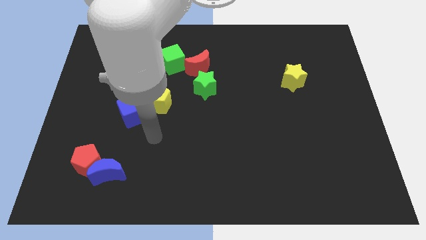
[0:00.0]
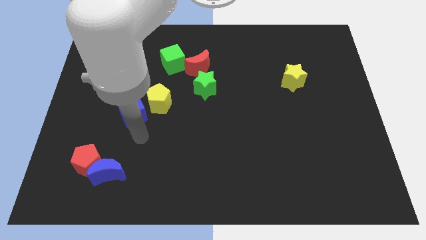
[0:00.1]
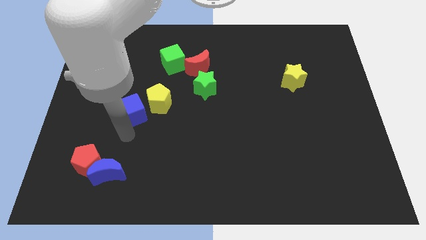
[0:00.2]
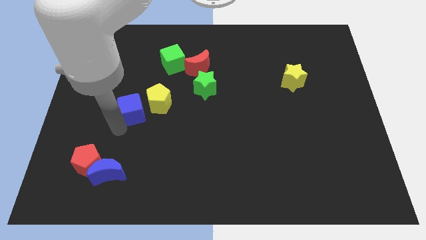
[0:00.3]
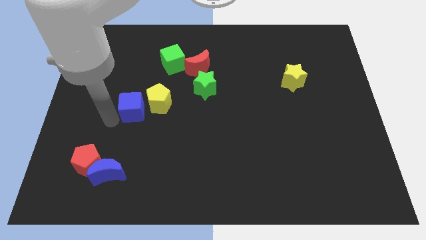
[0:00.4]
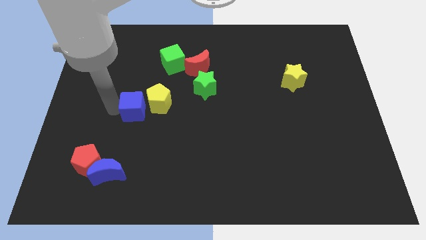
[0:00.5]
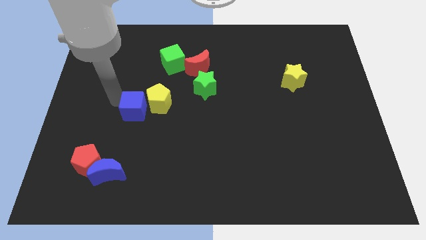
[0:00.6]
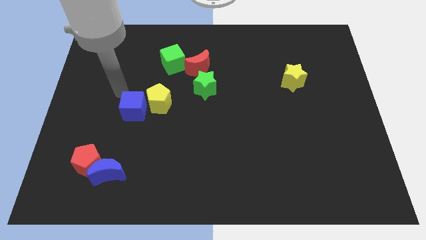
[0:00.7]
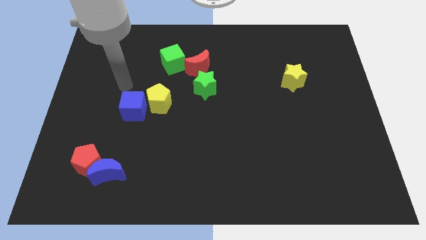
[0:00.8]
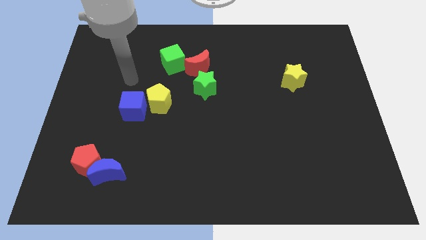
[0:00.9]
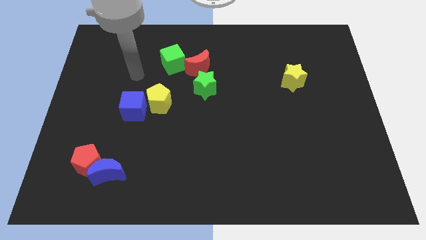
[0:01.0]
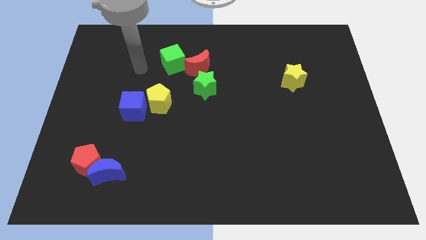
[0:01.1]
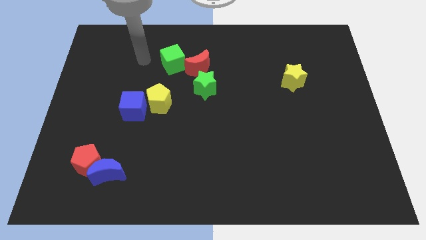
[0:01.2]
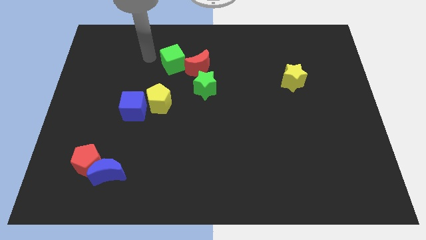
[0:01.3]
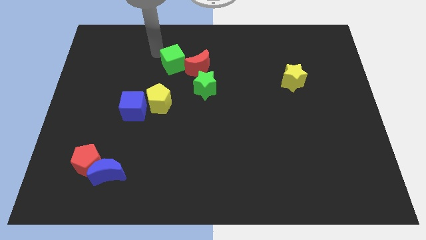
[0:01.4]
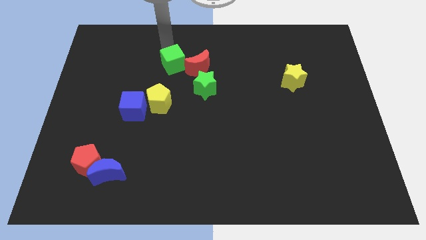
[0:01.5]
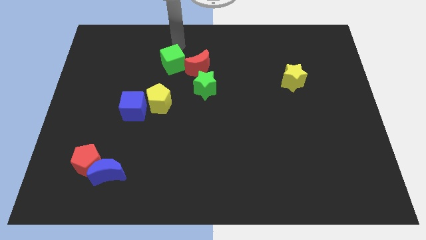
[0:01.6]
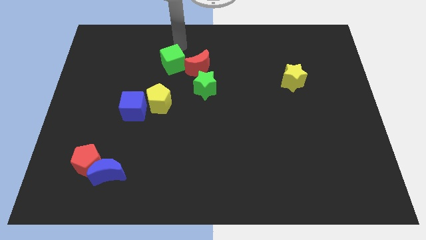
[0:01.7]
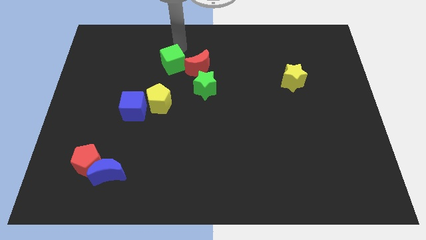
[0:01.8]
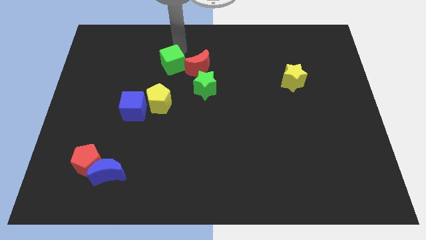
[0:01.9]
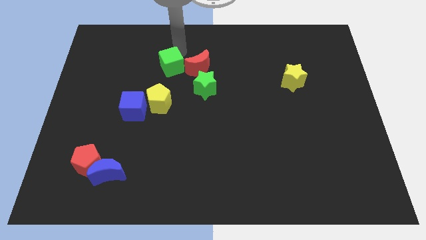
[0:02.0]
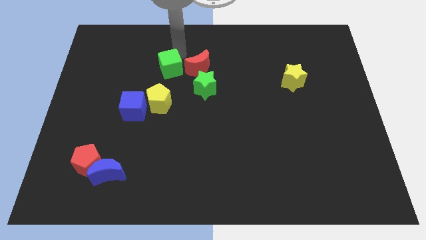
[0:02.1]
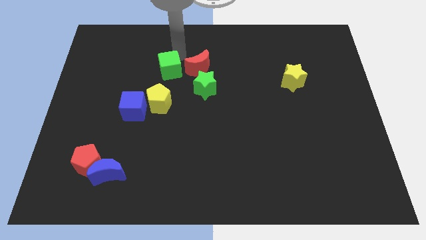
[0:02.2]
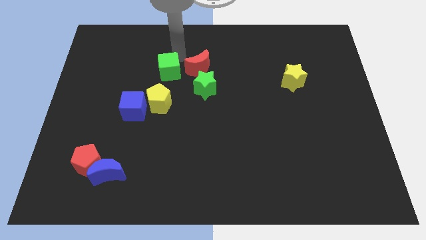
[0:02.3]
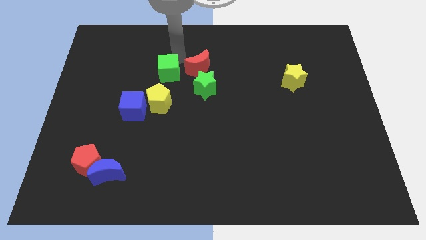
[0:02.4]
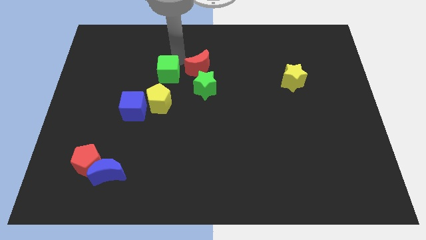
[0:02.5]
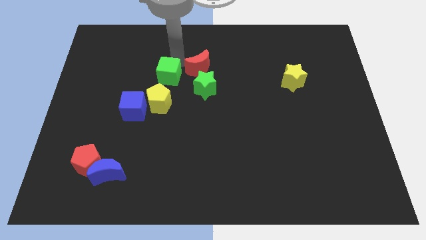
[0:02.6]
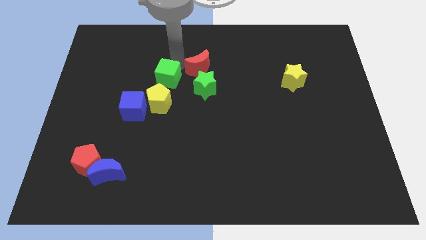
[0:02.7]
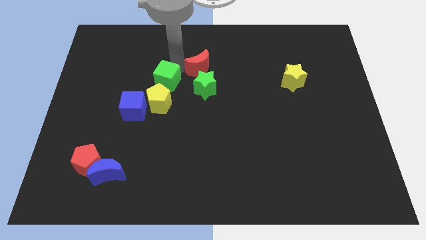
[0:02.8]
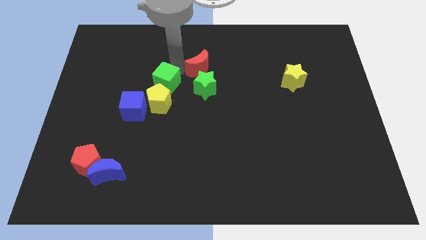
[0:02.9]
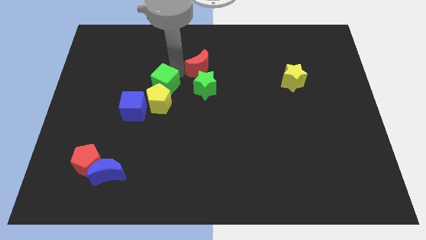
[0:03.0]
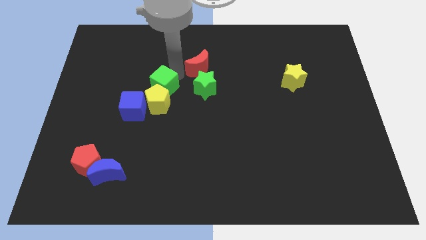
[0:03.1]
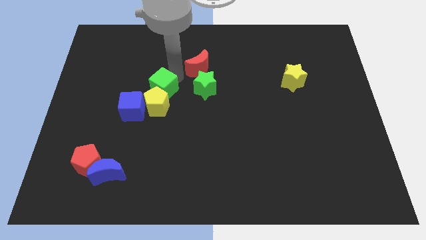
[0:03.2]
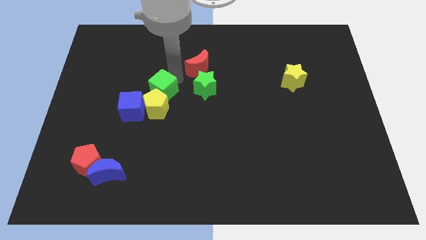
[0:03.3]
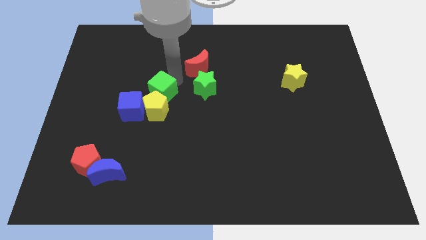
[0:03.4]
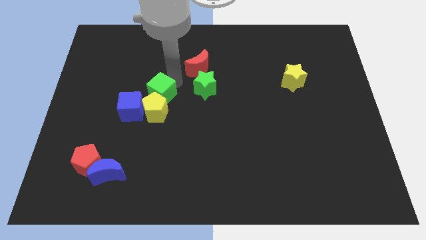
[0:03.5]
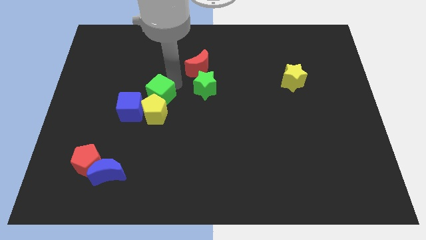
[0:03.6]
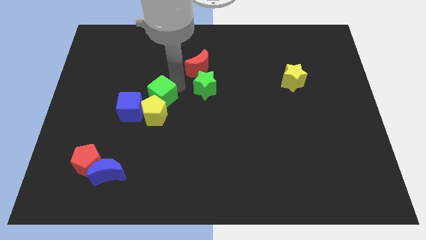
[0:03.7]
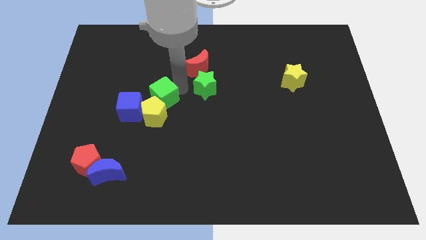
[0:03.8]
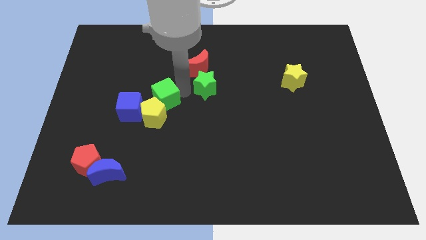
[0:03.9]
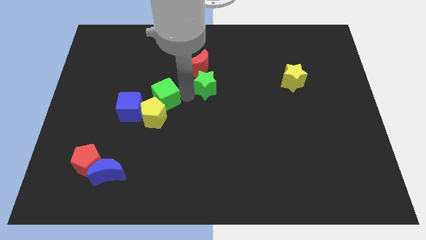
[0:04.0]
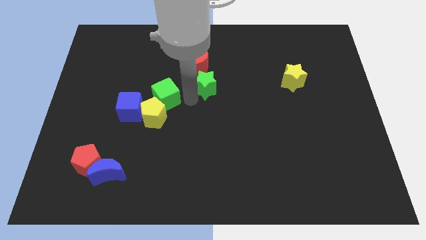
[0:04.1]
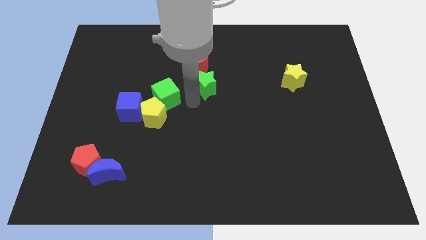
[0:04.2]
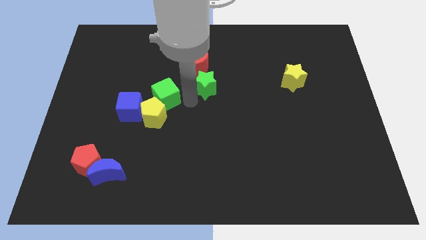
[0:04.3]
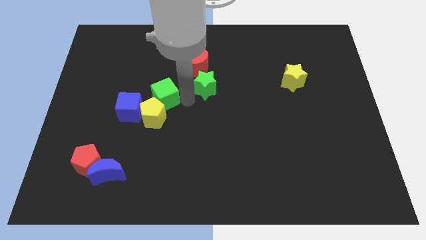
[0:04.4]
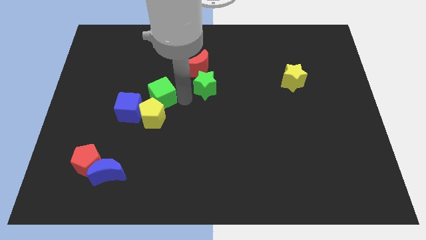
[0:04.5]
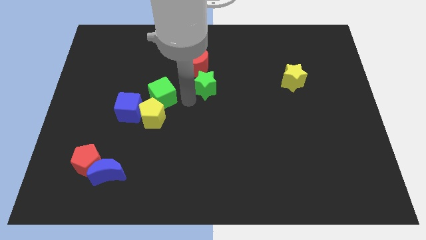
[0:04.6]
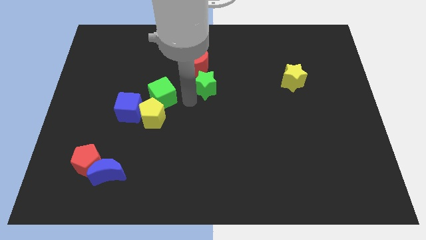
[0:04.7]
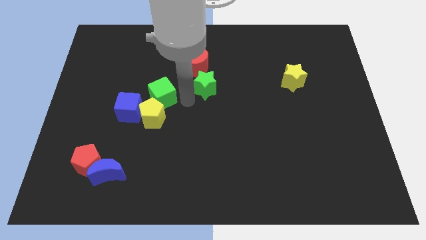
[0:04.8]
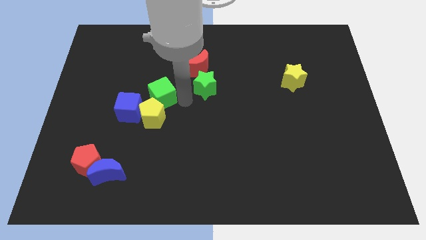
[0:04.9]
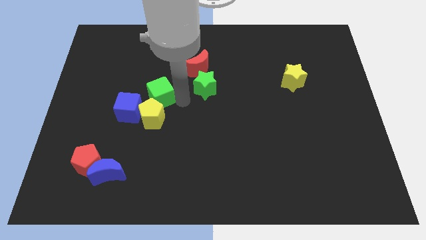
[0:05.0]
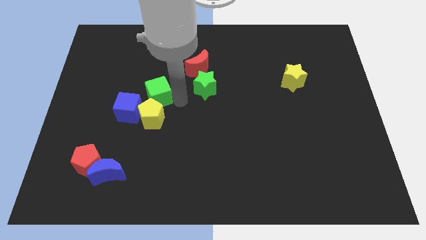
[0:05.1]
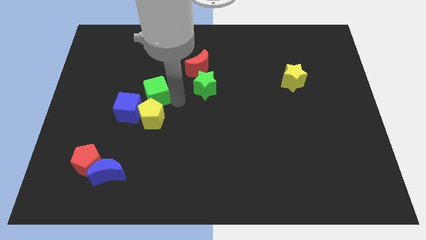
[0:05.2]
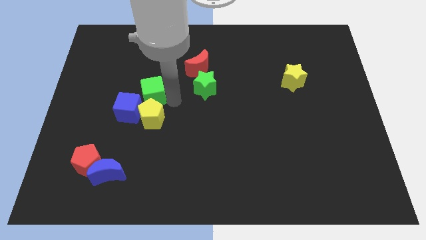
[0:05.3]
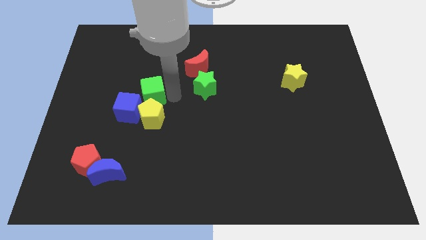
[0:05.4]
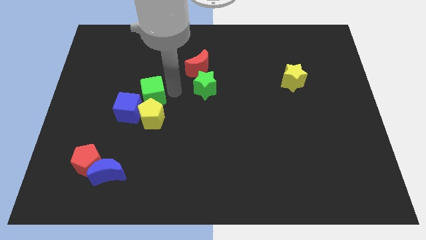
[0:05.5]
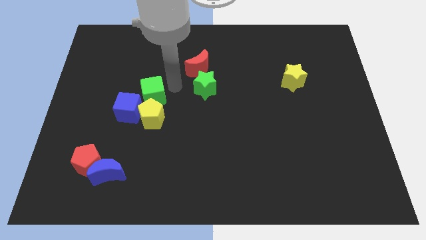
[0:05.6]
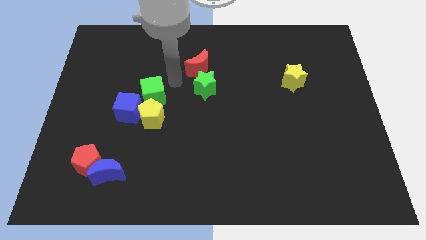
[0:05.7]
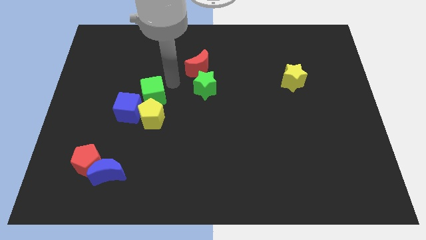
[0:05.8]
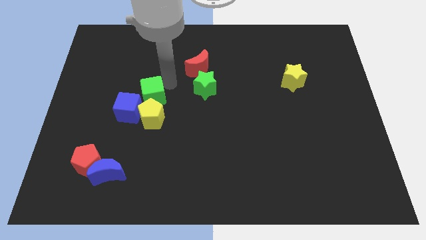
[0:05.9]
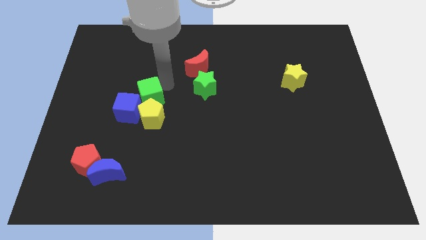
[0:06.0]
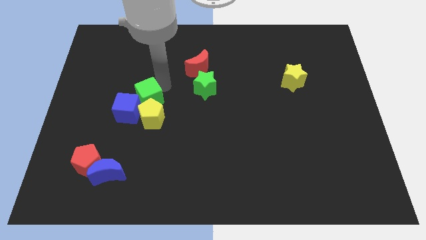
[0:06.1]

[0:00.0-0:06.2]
push the green cube next to the blue cube

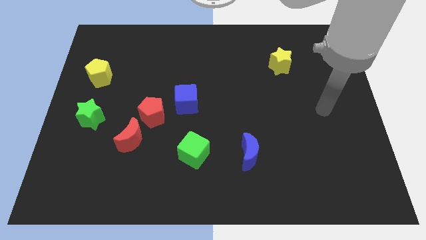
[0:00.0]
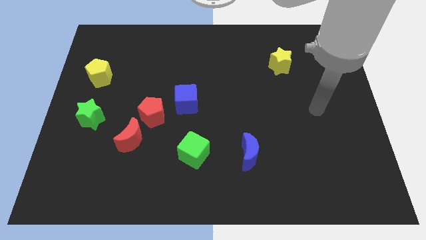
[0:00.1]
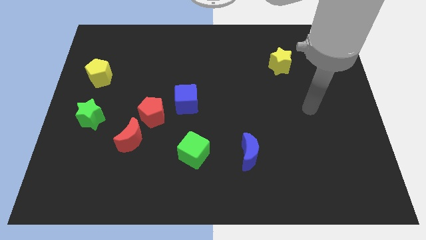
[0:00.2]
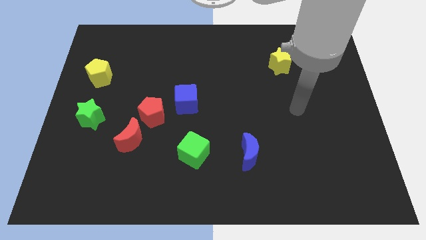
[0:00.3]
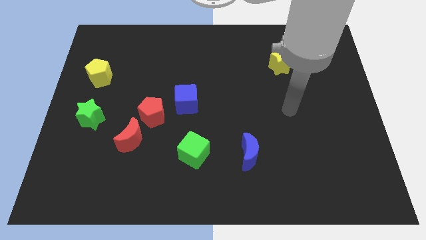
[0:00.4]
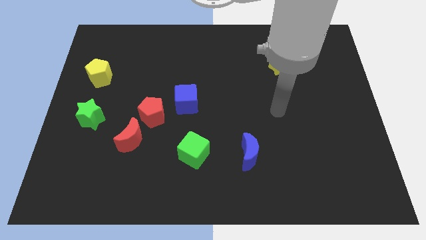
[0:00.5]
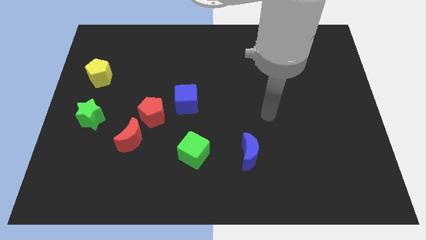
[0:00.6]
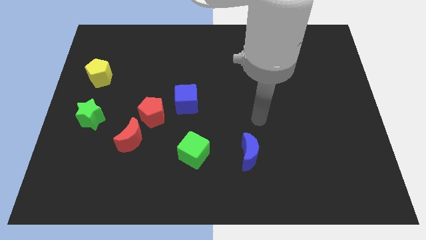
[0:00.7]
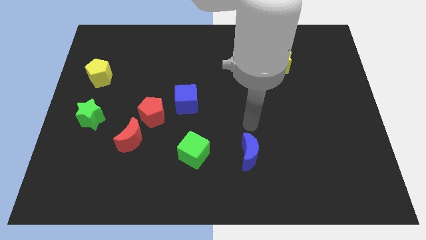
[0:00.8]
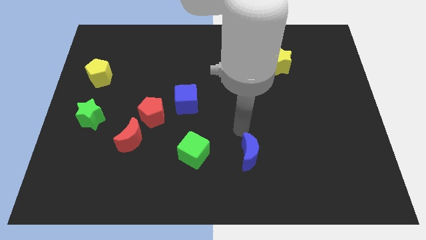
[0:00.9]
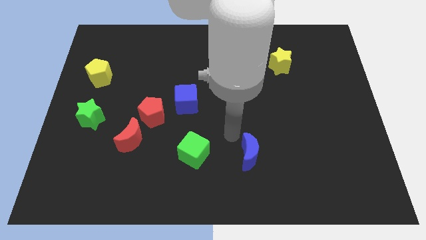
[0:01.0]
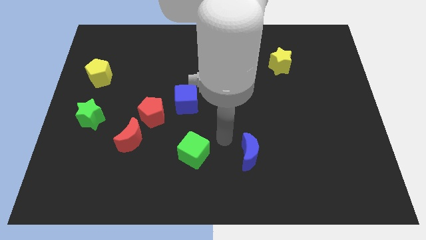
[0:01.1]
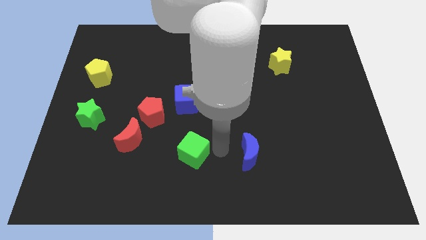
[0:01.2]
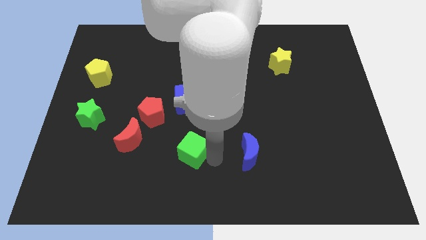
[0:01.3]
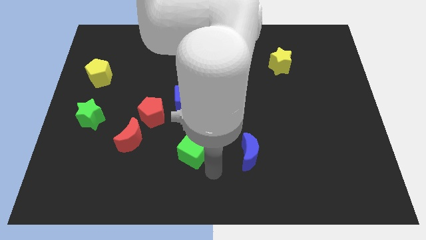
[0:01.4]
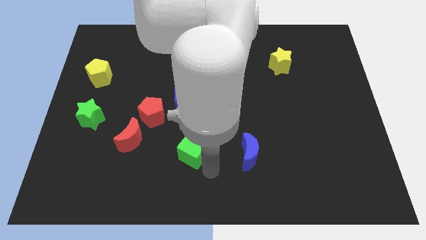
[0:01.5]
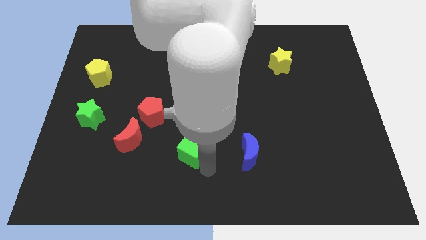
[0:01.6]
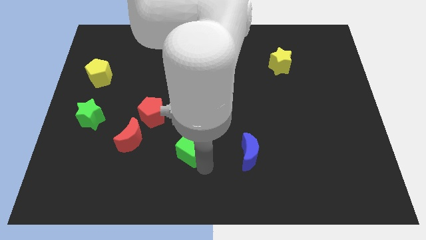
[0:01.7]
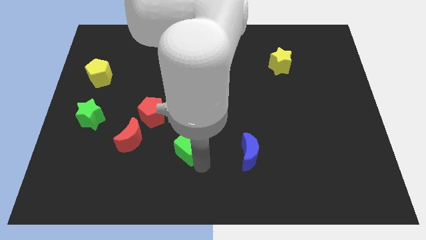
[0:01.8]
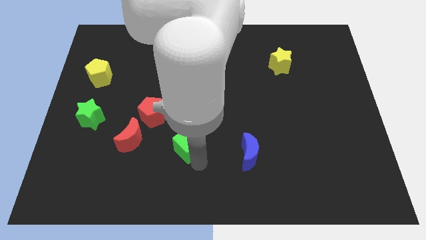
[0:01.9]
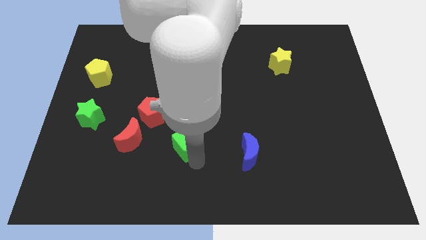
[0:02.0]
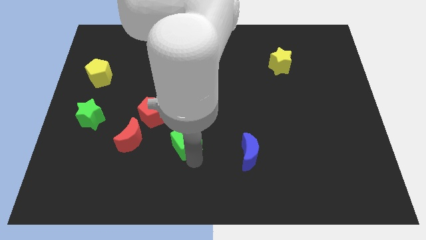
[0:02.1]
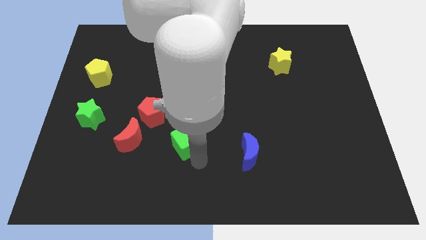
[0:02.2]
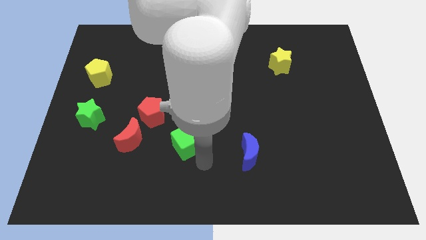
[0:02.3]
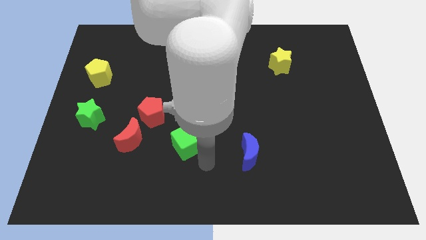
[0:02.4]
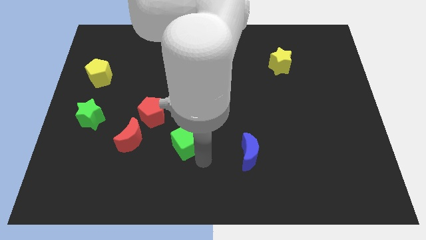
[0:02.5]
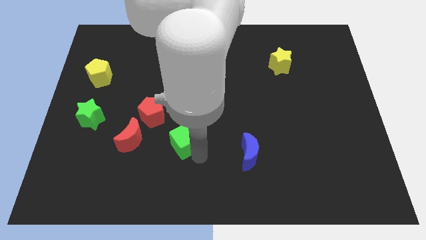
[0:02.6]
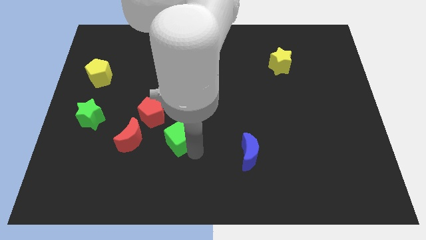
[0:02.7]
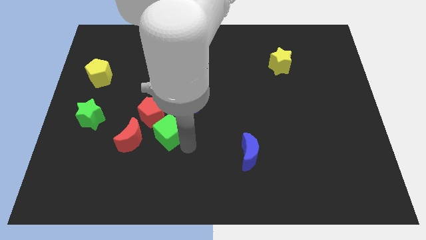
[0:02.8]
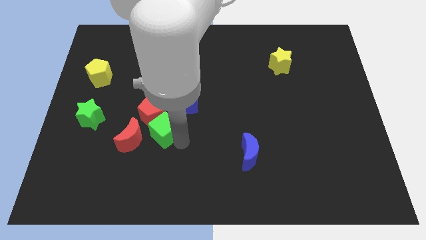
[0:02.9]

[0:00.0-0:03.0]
push the green cube close to the red pentagon
